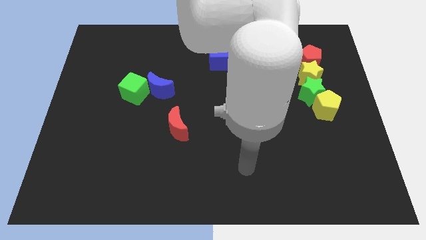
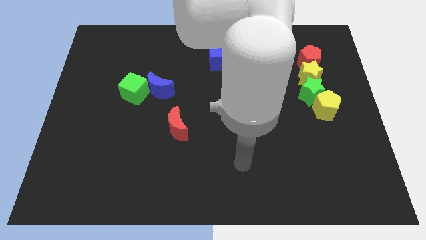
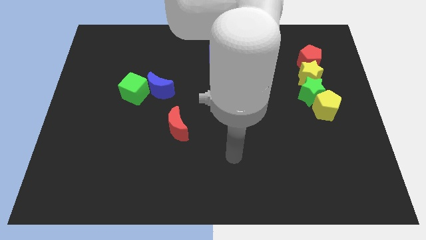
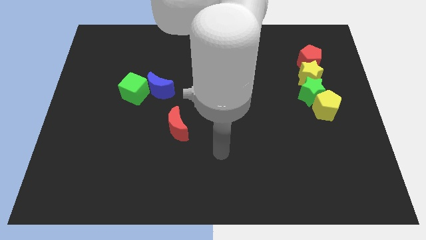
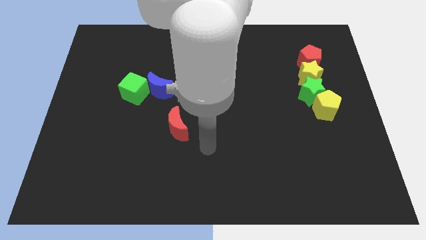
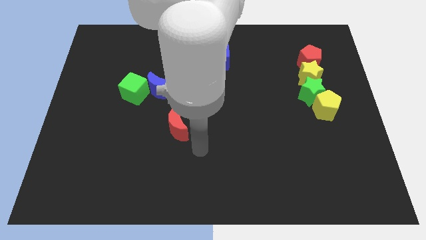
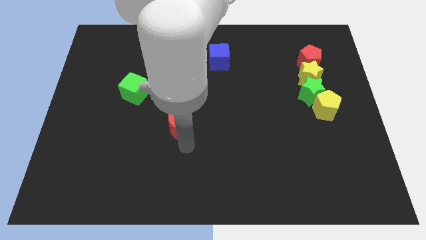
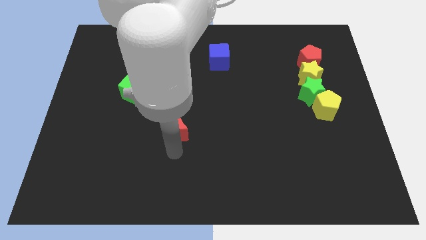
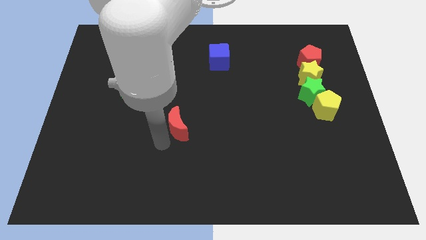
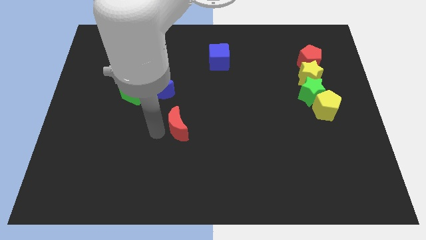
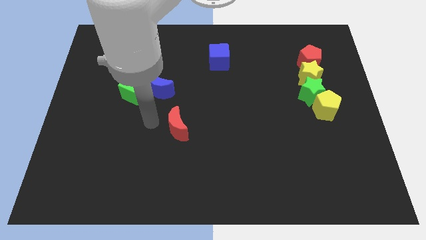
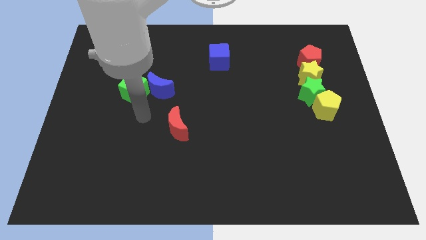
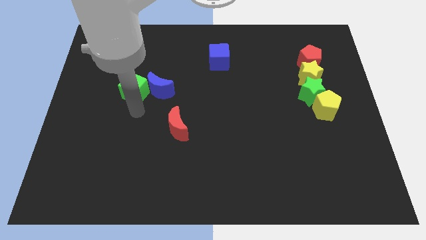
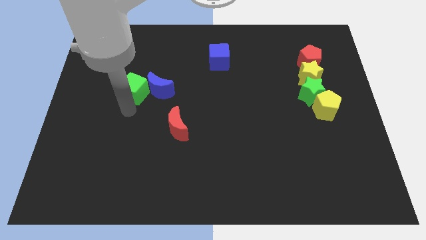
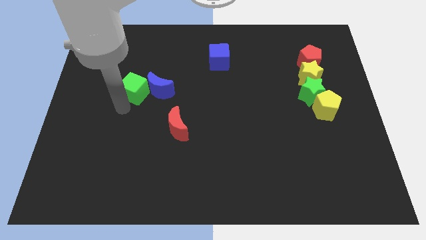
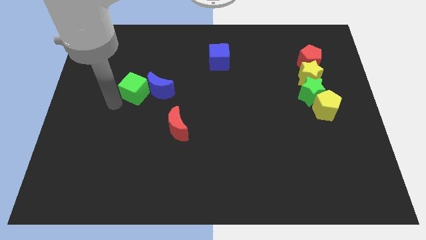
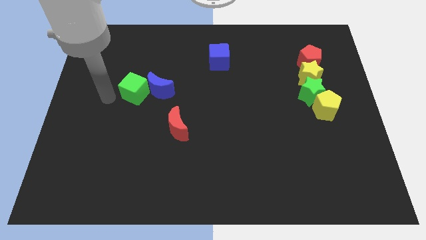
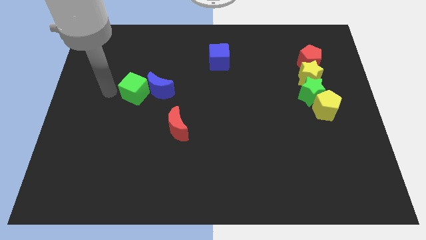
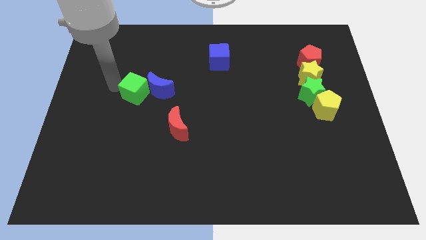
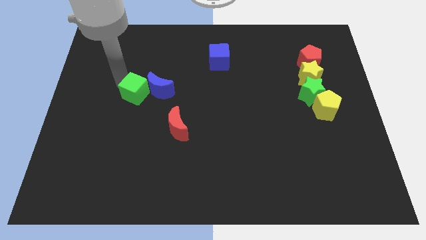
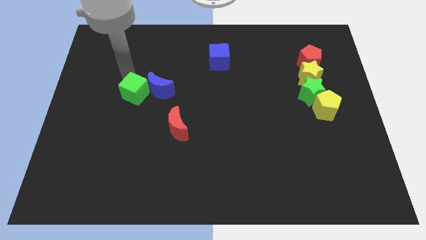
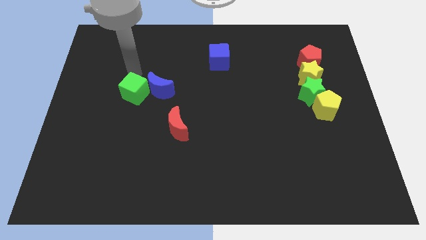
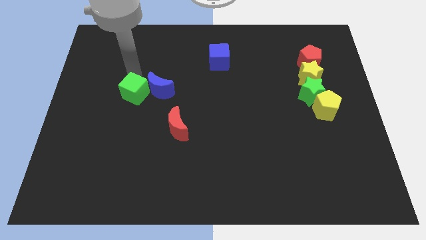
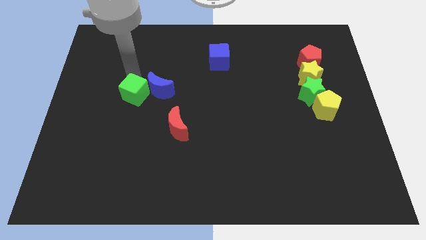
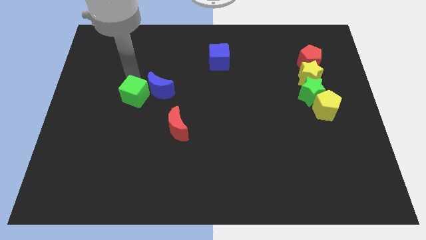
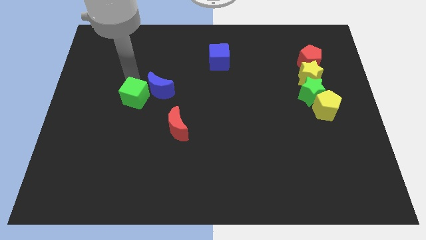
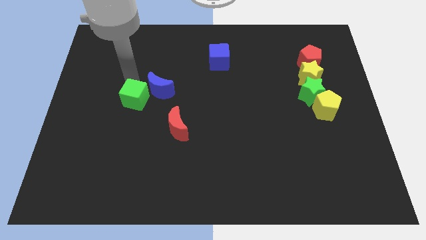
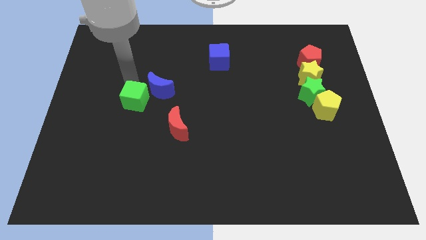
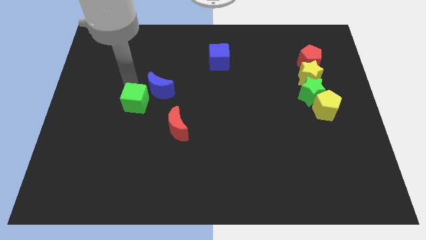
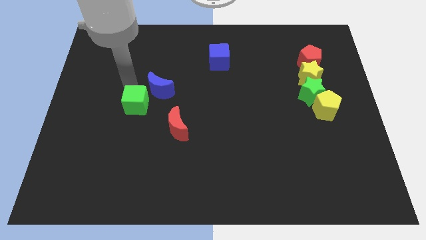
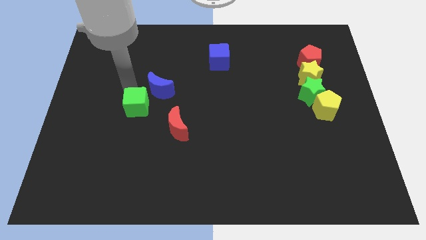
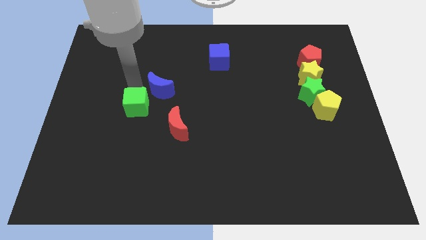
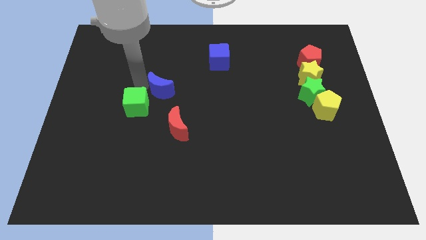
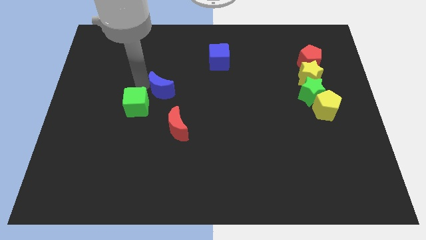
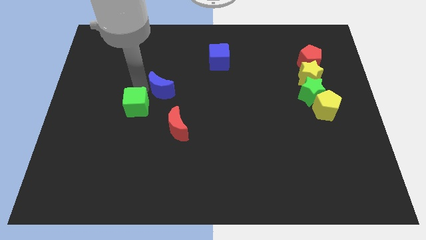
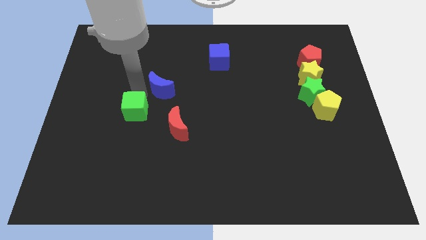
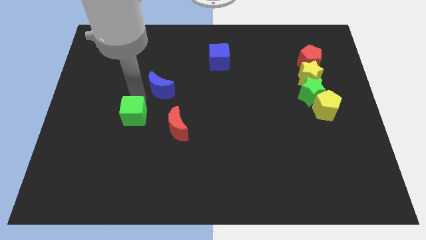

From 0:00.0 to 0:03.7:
slightly move the green cube down

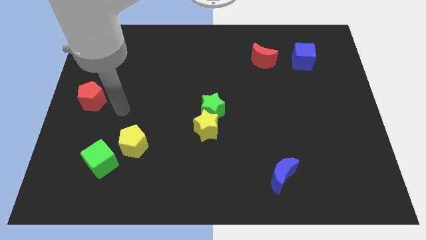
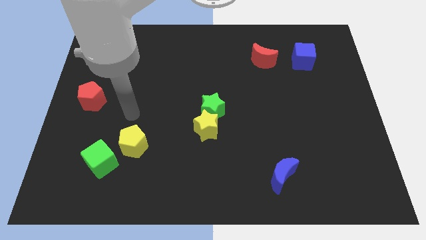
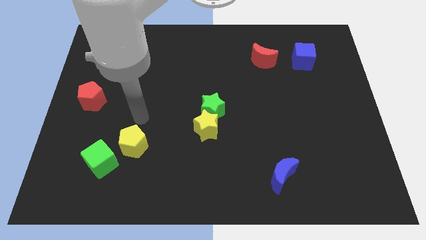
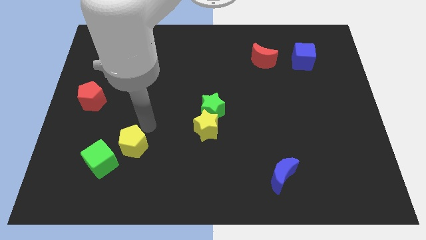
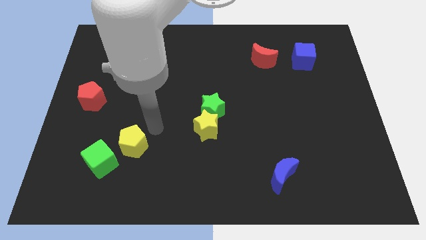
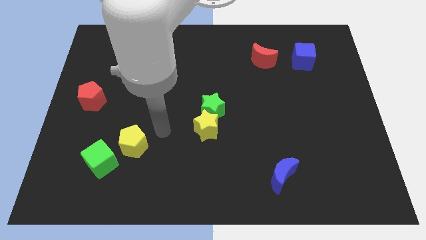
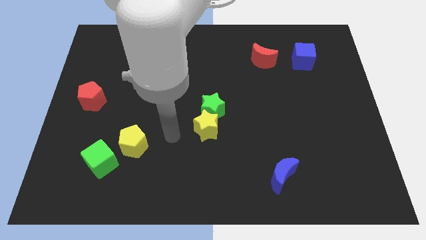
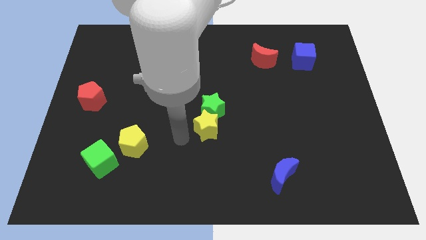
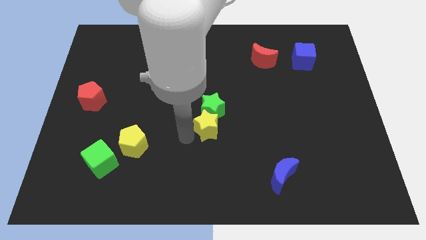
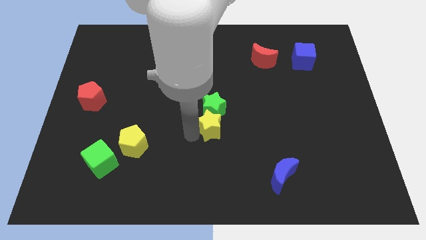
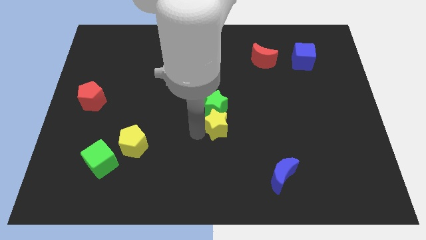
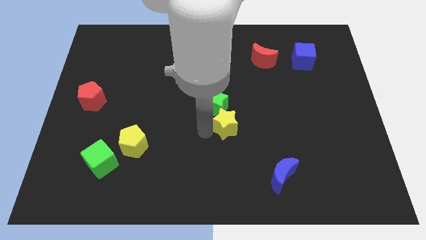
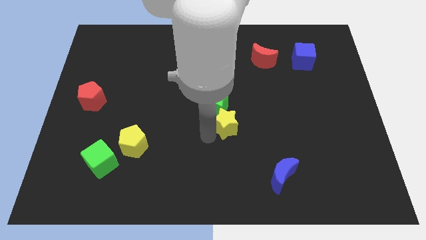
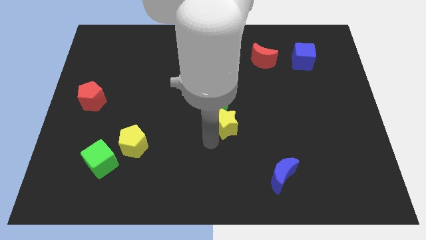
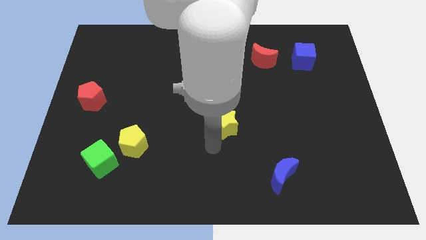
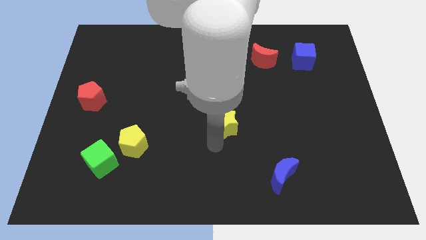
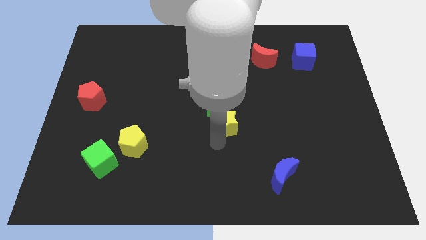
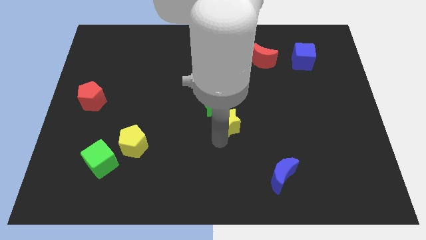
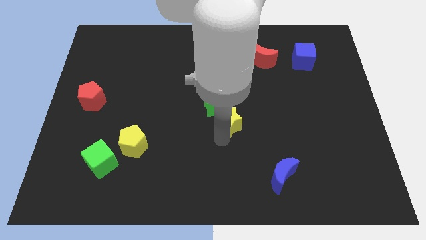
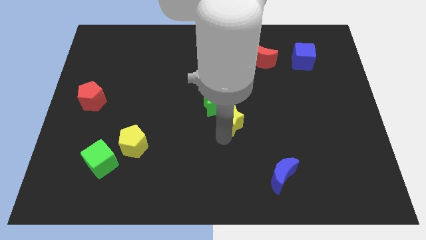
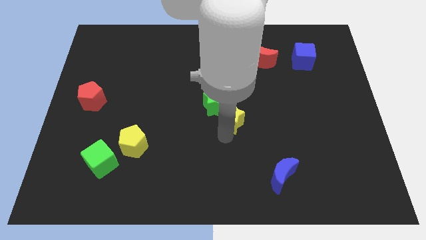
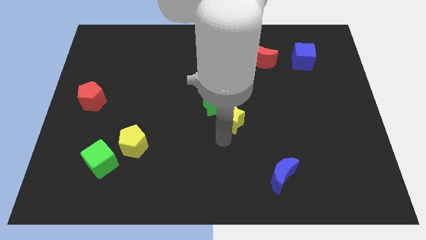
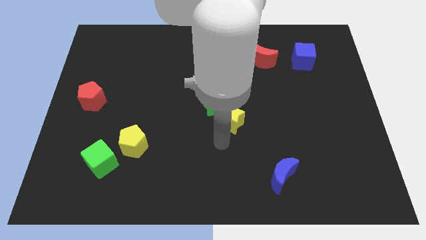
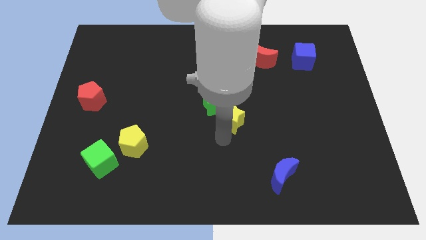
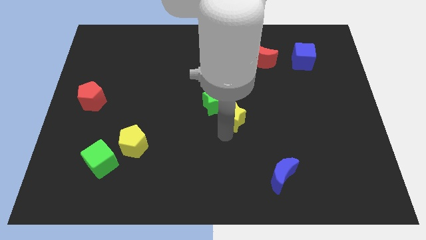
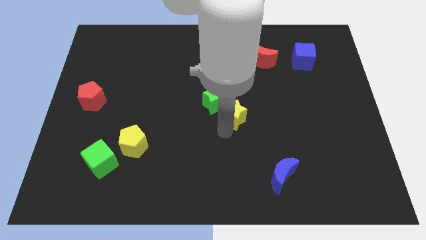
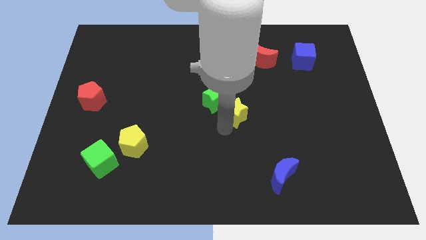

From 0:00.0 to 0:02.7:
slide the yellow star a little upwards and right diagonally

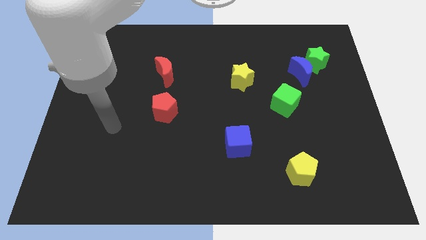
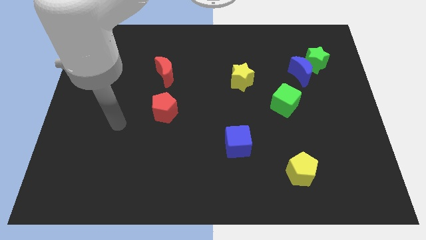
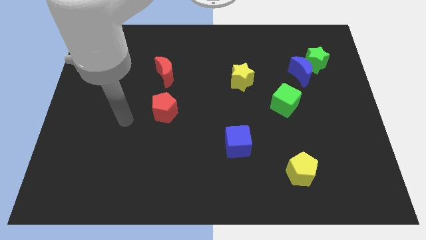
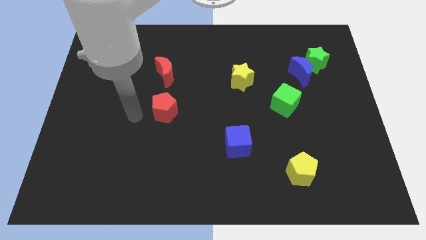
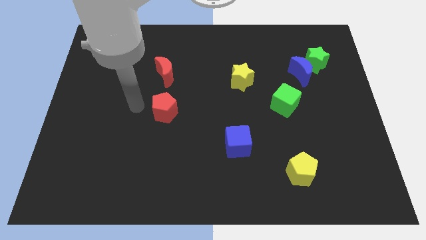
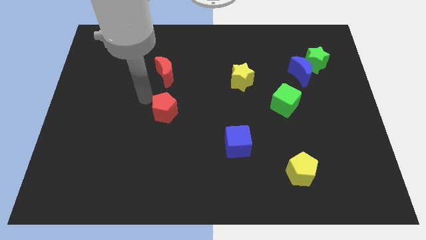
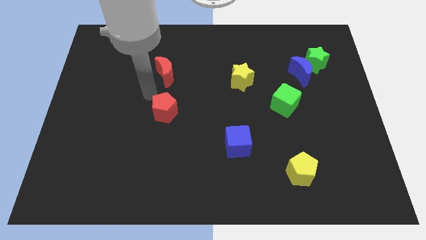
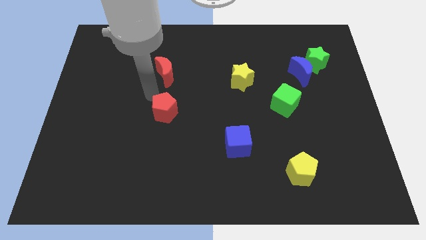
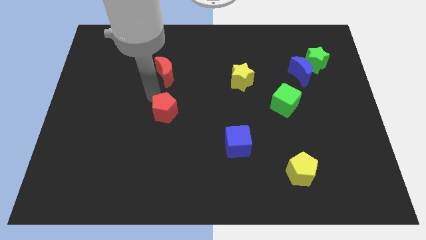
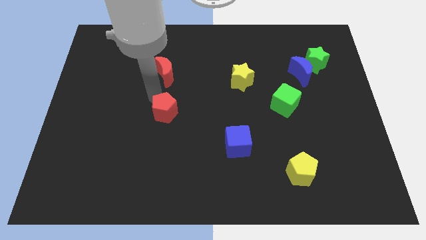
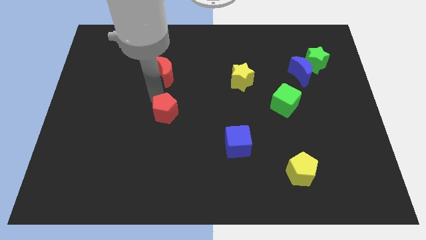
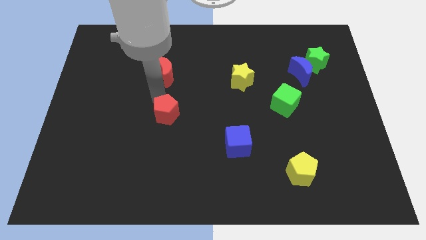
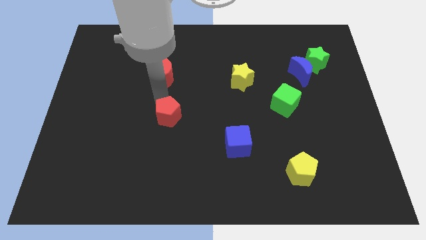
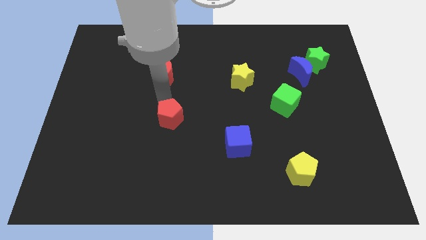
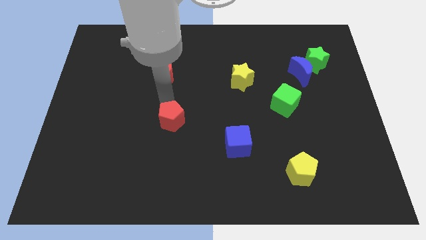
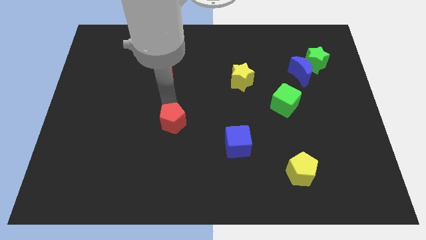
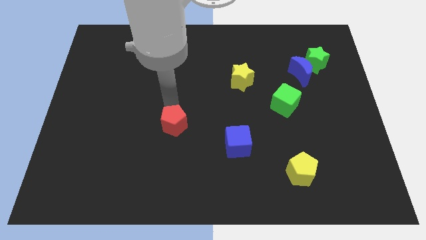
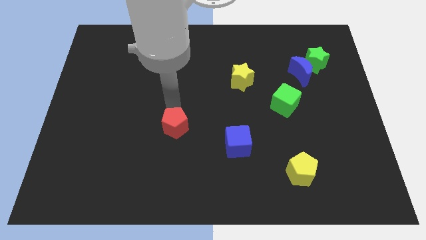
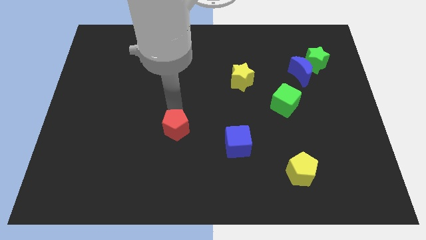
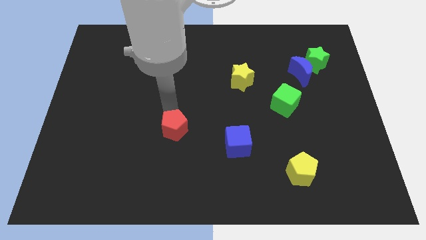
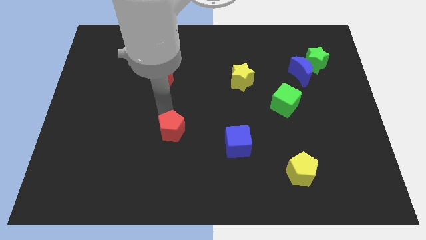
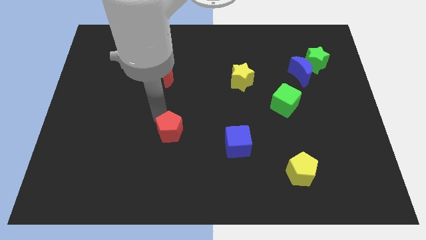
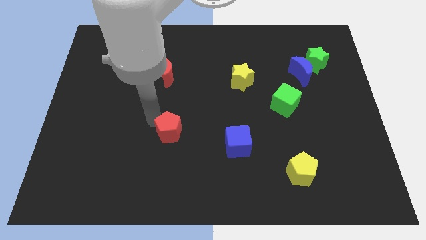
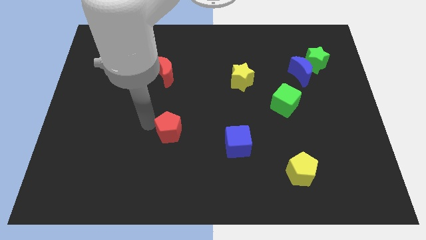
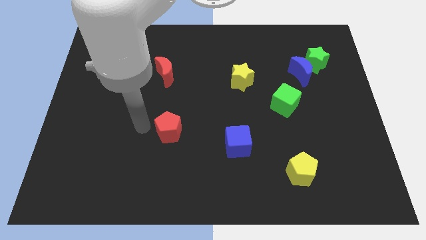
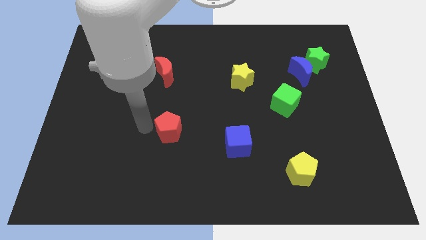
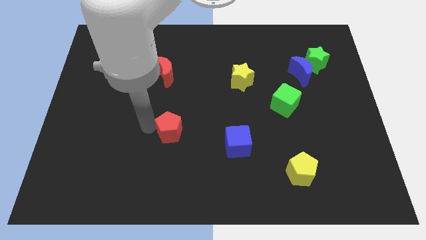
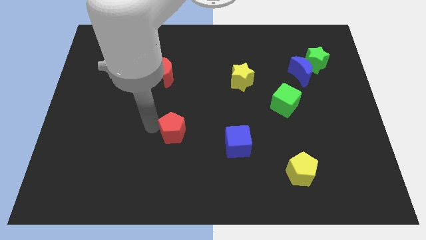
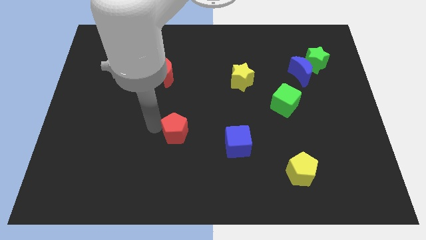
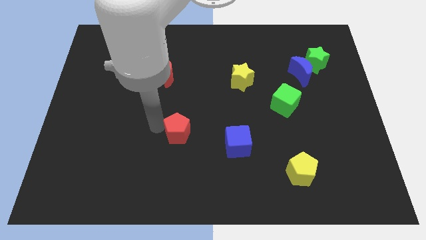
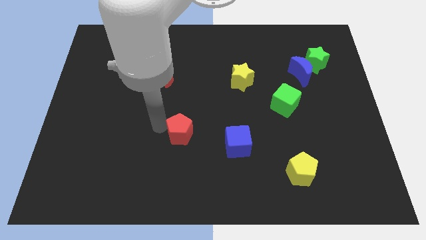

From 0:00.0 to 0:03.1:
slightly move the red pentagon diagonally down and to the right
